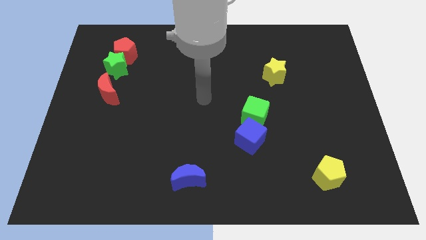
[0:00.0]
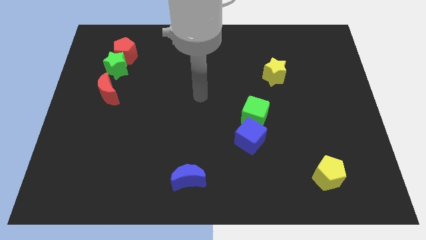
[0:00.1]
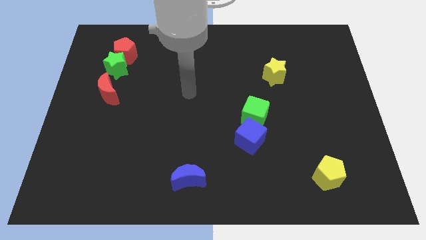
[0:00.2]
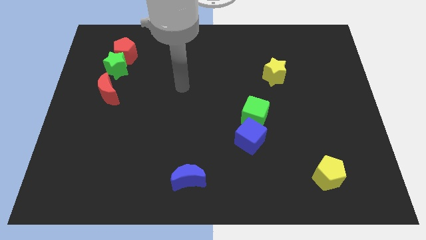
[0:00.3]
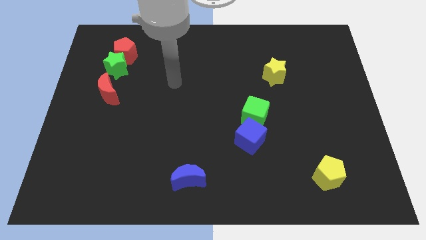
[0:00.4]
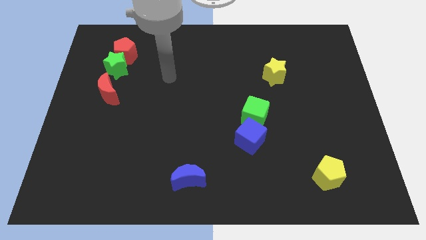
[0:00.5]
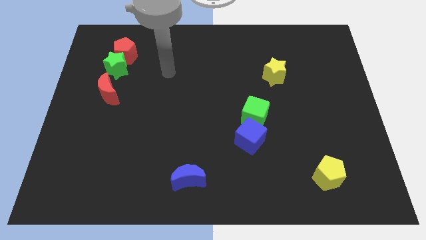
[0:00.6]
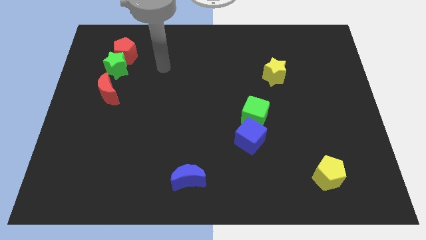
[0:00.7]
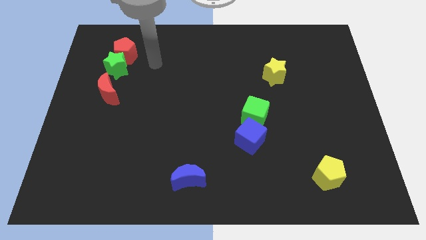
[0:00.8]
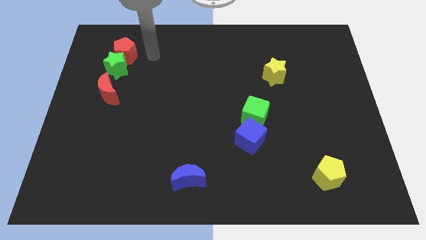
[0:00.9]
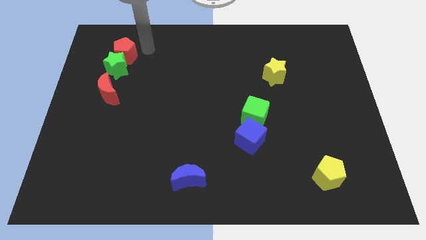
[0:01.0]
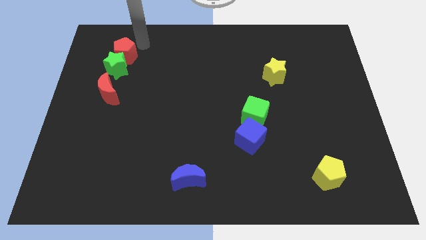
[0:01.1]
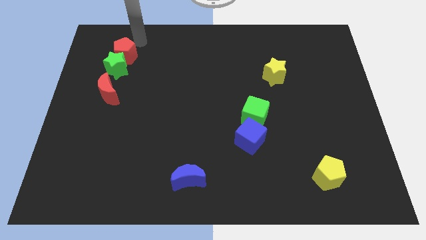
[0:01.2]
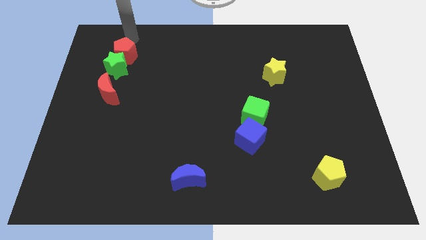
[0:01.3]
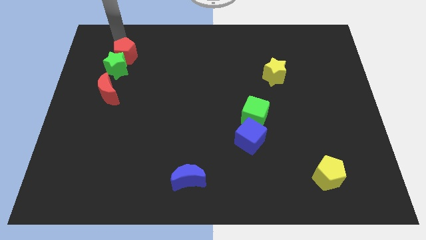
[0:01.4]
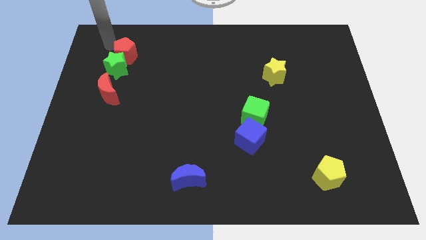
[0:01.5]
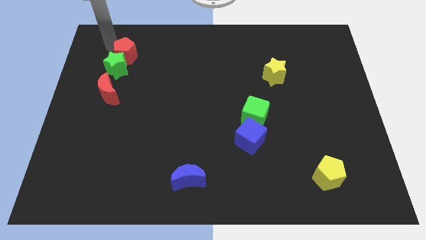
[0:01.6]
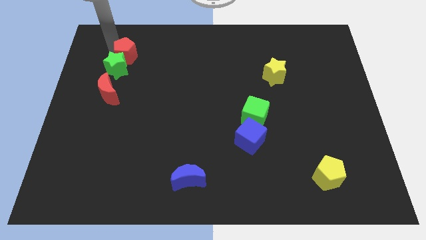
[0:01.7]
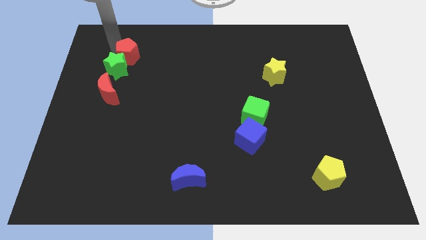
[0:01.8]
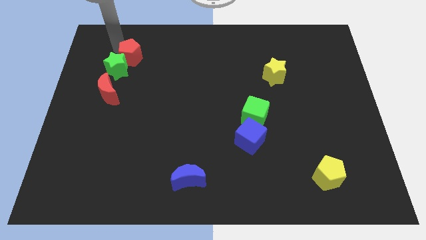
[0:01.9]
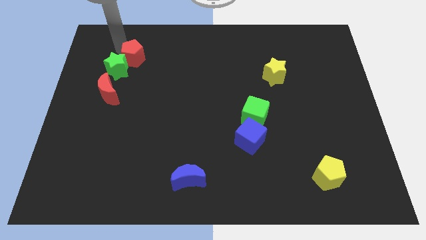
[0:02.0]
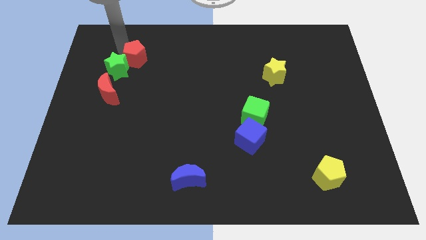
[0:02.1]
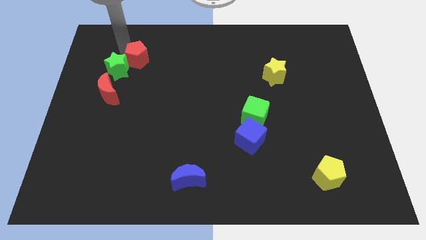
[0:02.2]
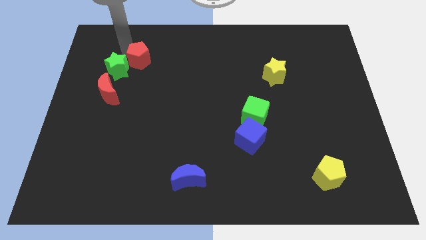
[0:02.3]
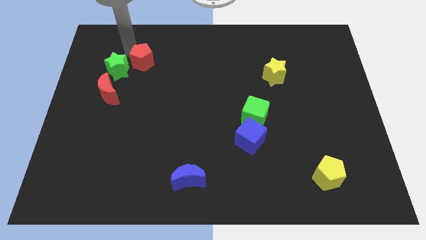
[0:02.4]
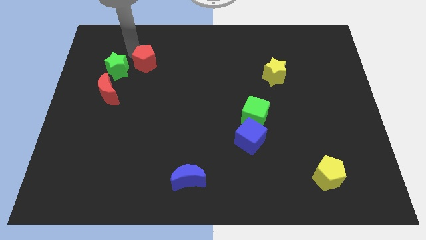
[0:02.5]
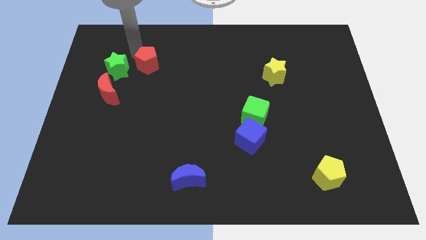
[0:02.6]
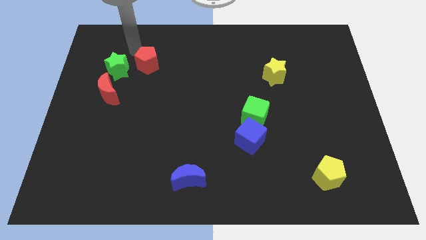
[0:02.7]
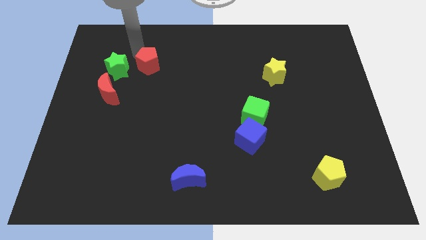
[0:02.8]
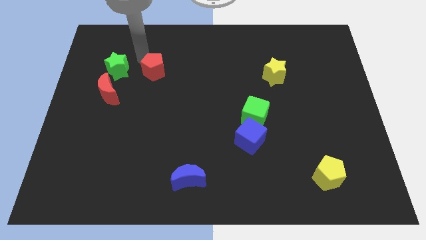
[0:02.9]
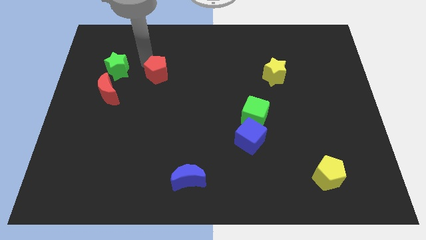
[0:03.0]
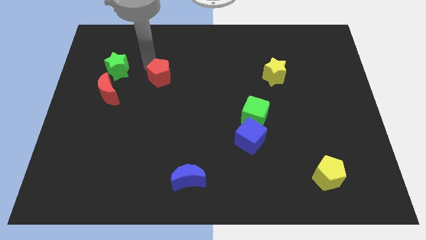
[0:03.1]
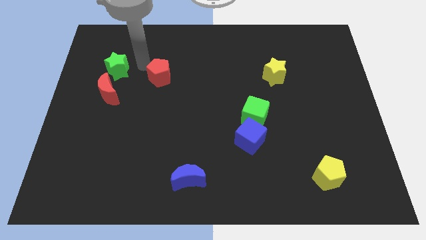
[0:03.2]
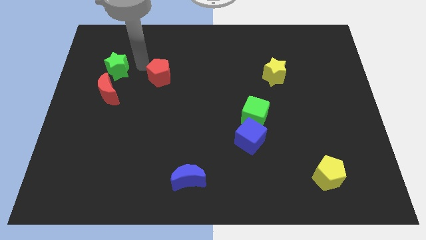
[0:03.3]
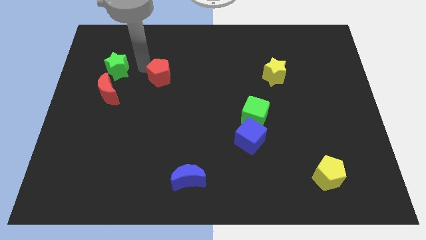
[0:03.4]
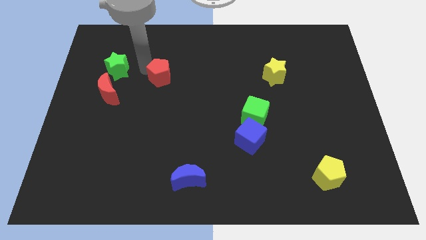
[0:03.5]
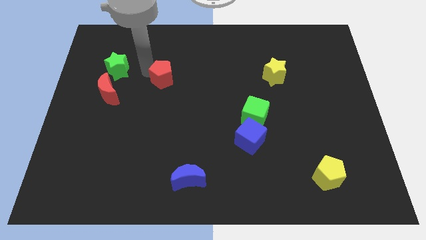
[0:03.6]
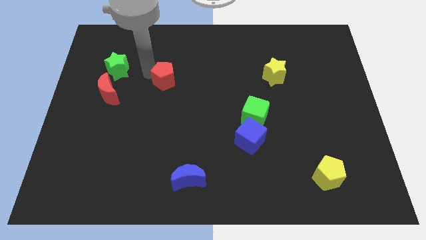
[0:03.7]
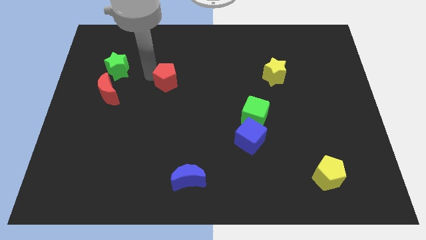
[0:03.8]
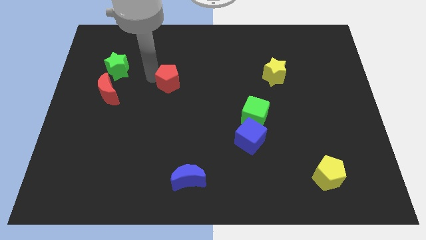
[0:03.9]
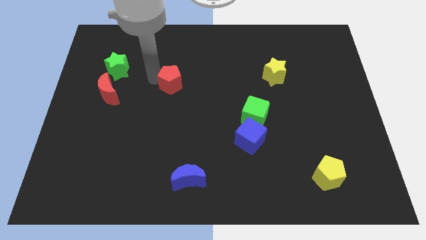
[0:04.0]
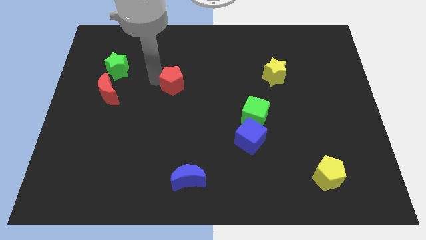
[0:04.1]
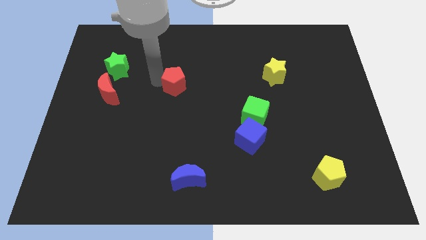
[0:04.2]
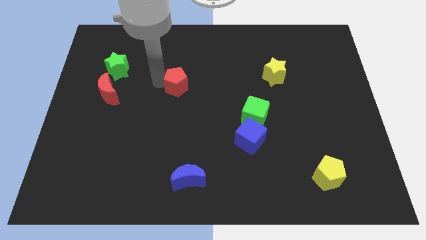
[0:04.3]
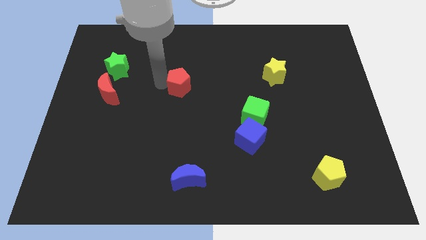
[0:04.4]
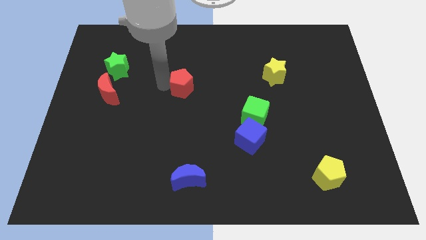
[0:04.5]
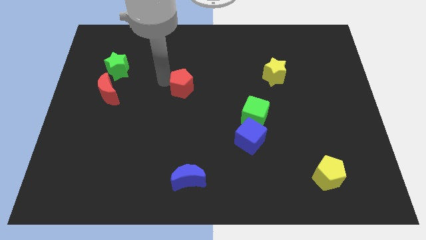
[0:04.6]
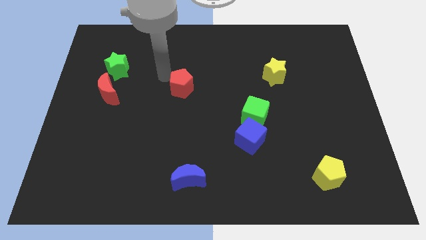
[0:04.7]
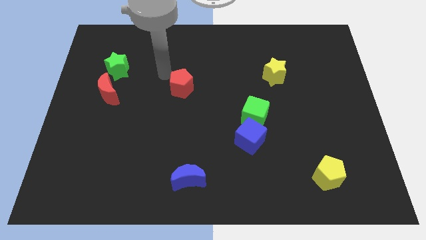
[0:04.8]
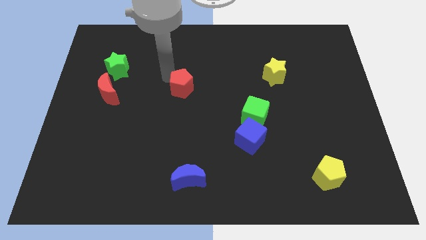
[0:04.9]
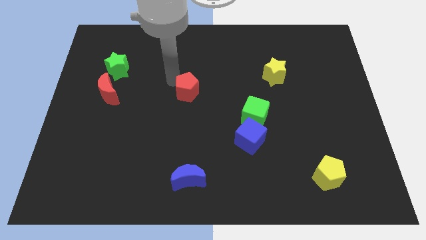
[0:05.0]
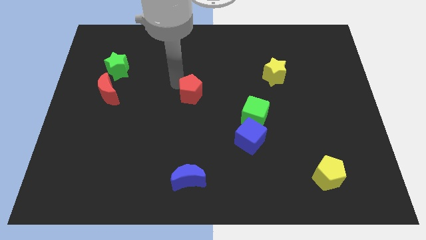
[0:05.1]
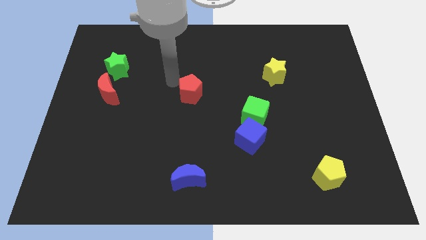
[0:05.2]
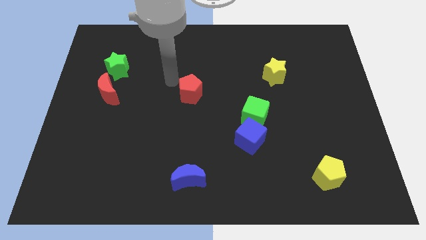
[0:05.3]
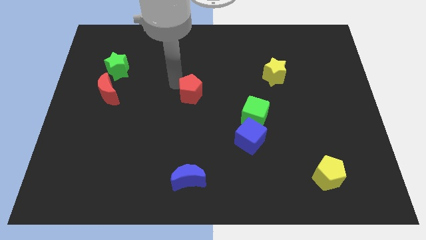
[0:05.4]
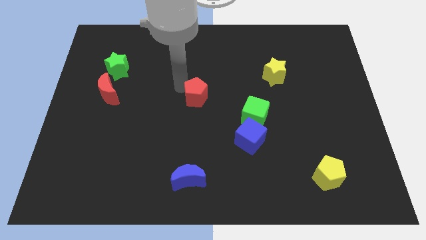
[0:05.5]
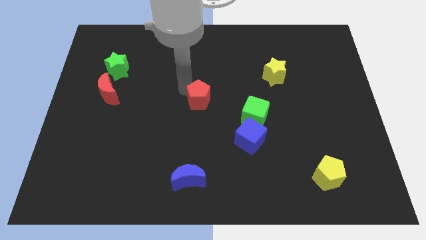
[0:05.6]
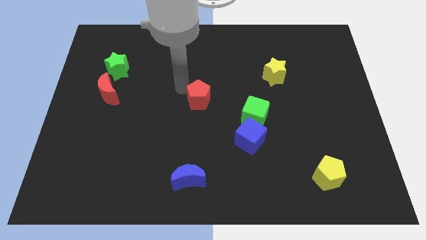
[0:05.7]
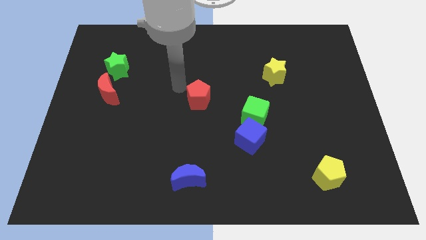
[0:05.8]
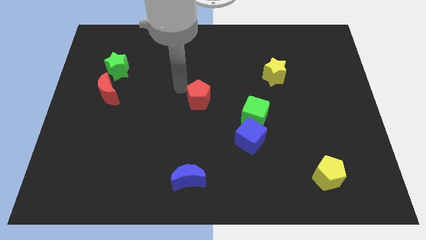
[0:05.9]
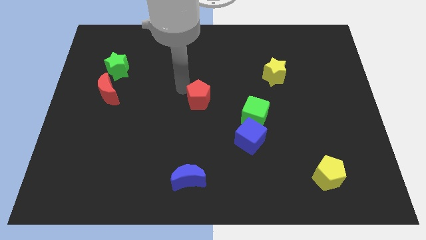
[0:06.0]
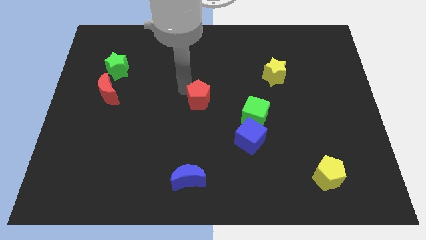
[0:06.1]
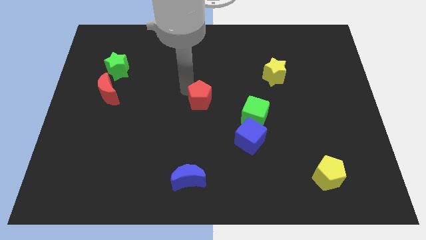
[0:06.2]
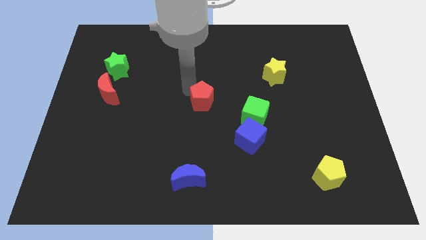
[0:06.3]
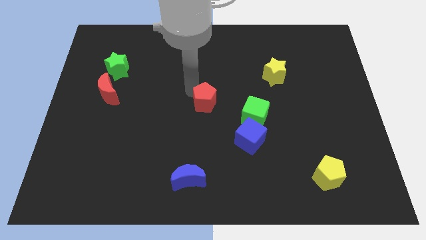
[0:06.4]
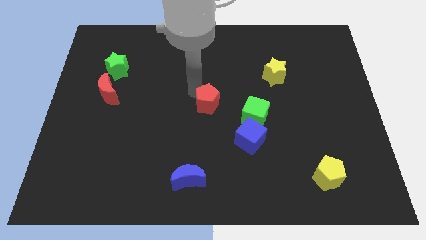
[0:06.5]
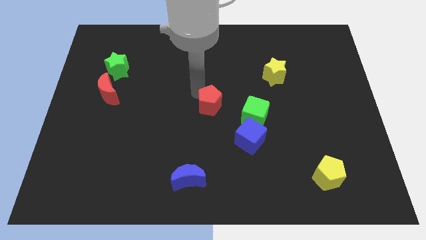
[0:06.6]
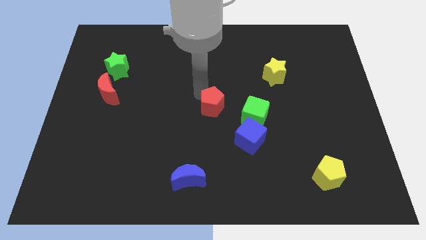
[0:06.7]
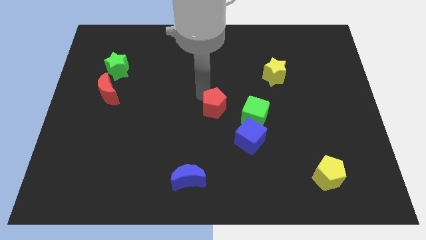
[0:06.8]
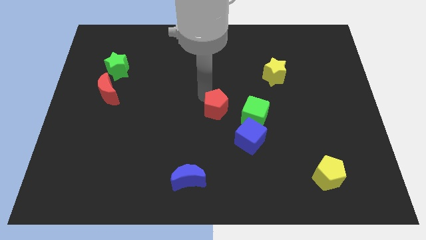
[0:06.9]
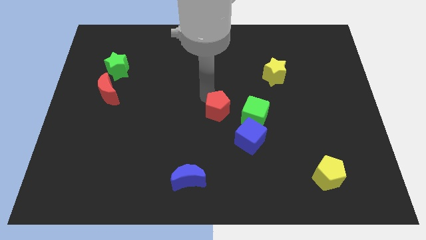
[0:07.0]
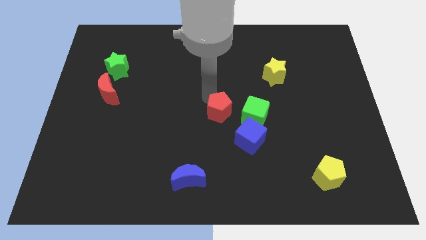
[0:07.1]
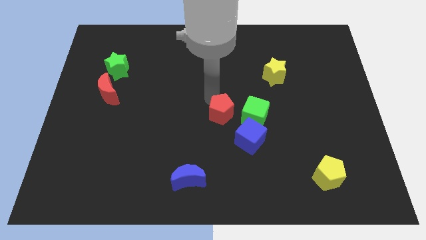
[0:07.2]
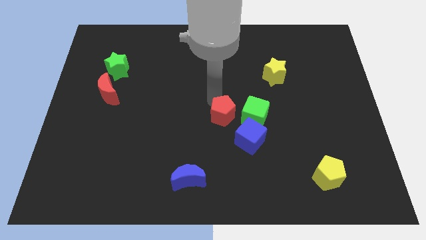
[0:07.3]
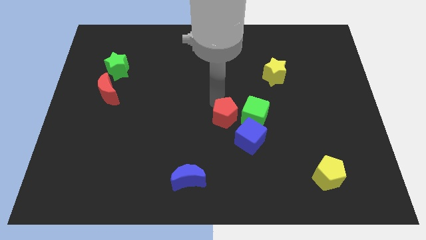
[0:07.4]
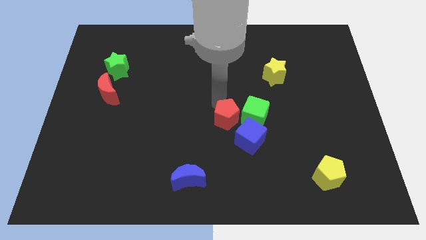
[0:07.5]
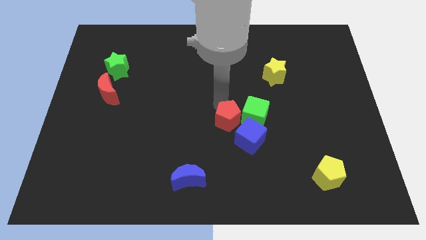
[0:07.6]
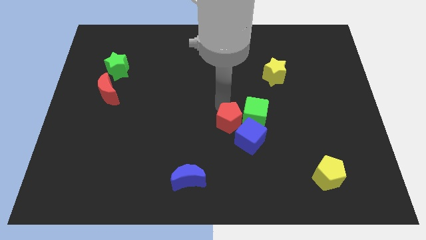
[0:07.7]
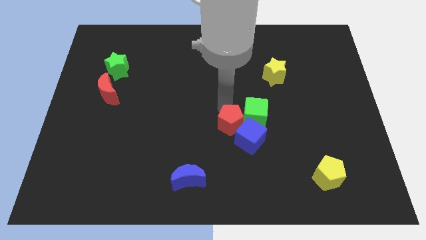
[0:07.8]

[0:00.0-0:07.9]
move the red pentagon towards the blue cube
